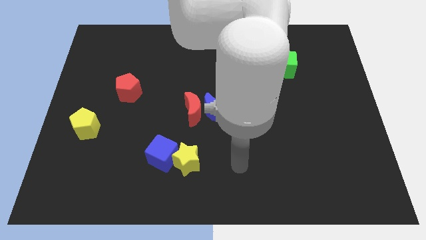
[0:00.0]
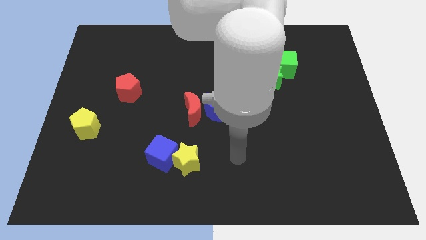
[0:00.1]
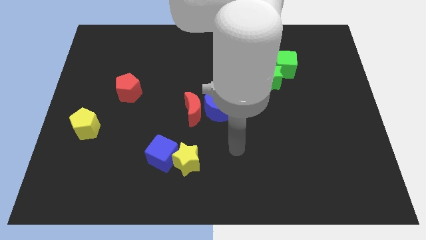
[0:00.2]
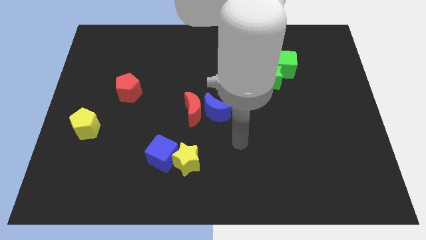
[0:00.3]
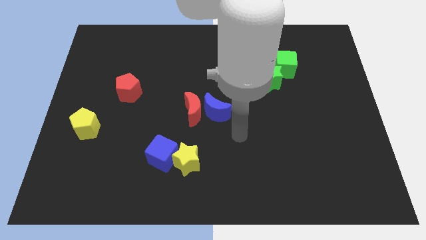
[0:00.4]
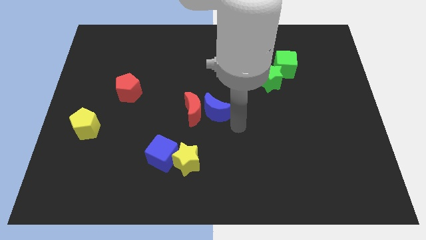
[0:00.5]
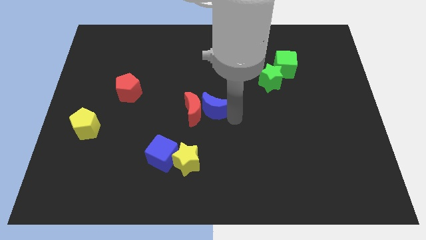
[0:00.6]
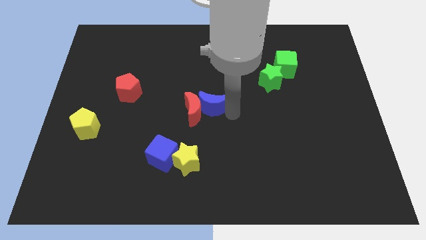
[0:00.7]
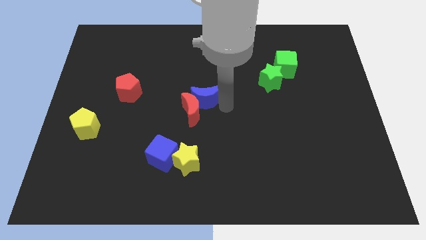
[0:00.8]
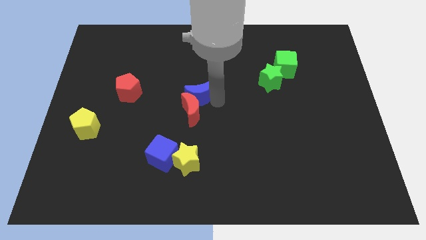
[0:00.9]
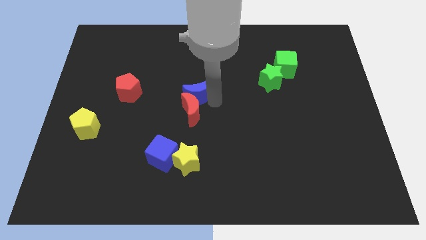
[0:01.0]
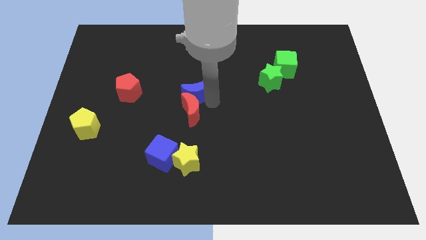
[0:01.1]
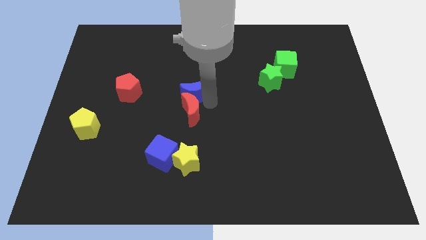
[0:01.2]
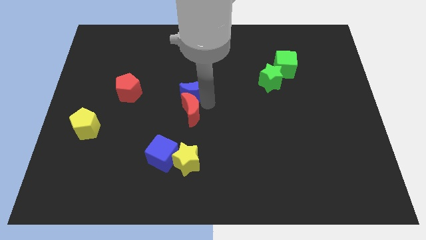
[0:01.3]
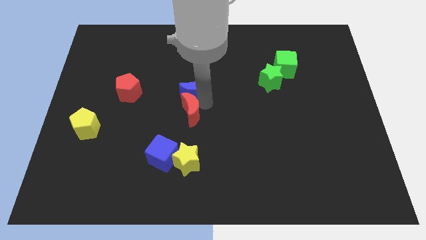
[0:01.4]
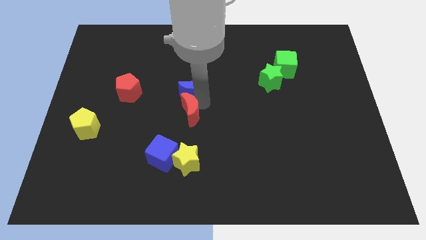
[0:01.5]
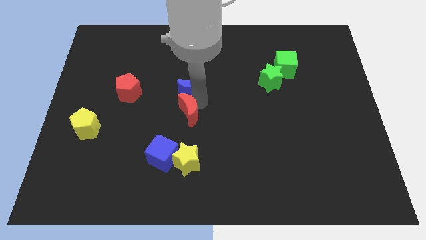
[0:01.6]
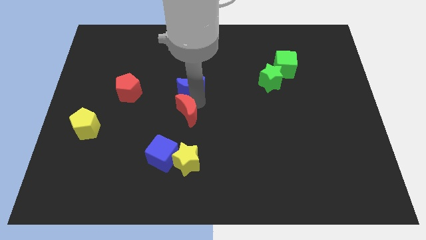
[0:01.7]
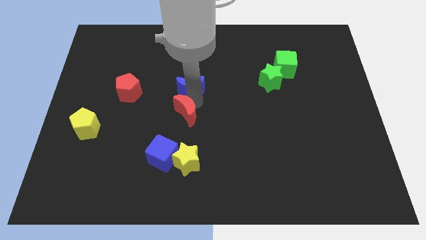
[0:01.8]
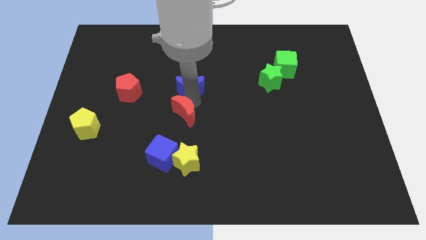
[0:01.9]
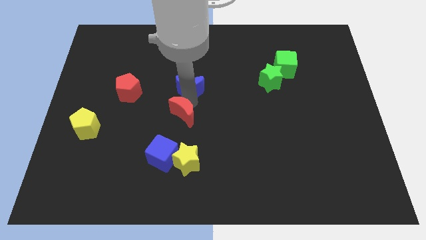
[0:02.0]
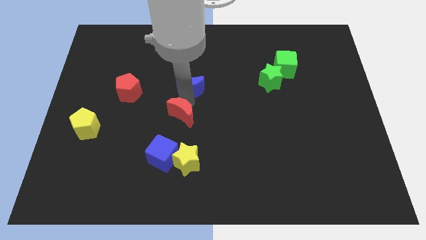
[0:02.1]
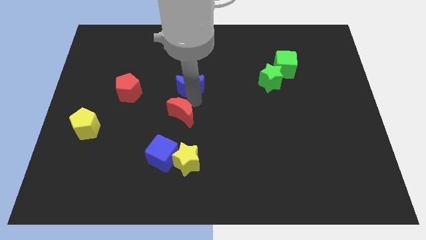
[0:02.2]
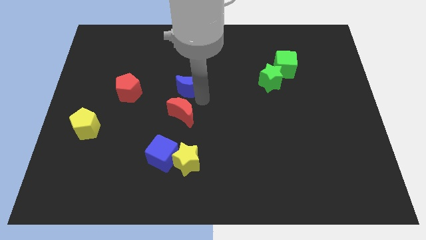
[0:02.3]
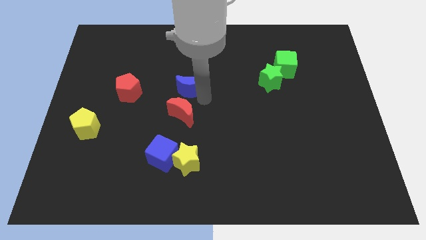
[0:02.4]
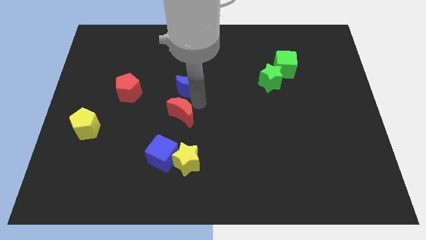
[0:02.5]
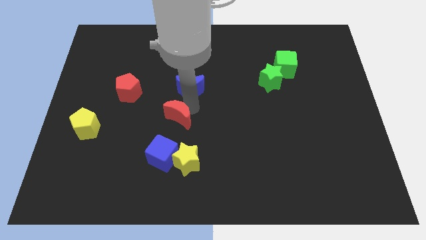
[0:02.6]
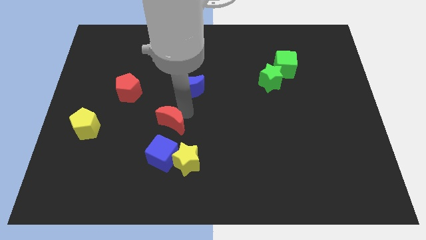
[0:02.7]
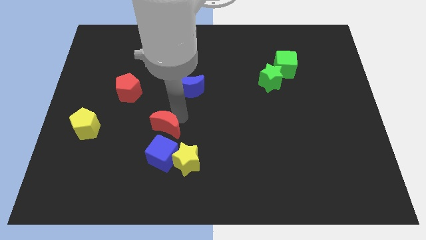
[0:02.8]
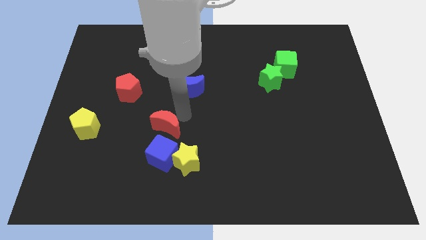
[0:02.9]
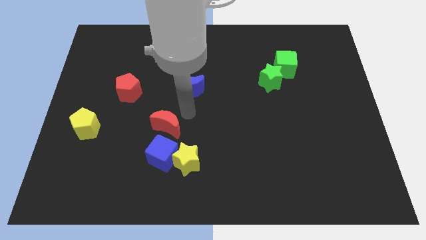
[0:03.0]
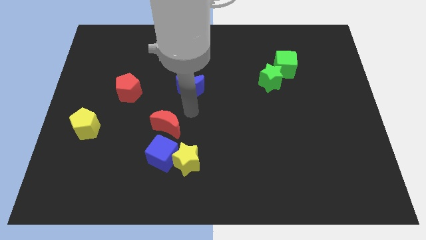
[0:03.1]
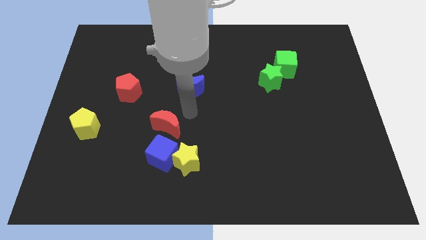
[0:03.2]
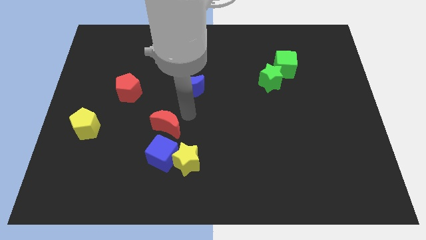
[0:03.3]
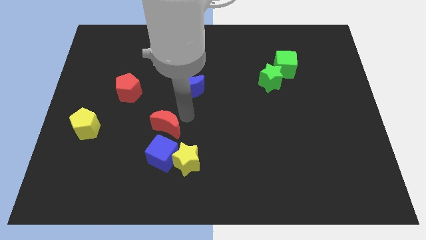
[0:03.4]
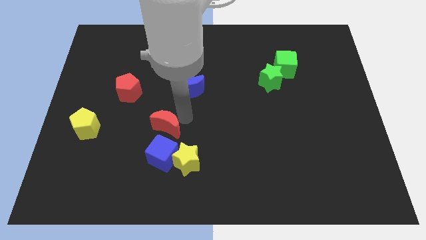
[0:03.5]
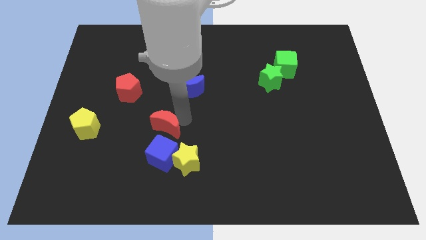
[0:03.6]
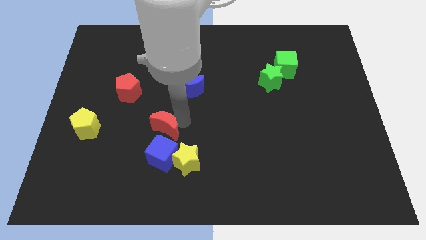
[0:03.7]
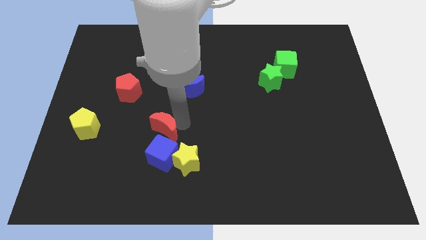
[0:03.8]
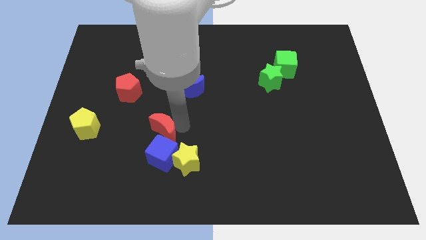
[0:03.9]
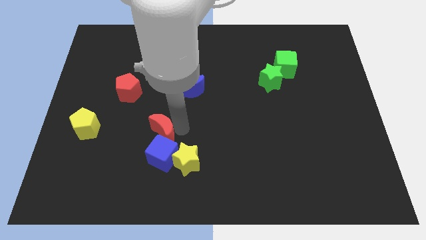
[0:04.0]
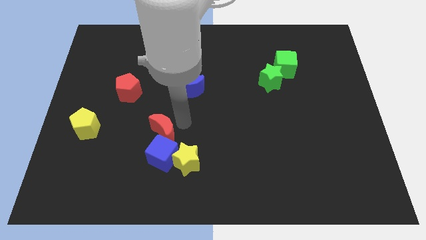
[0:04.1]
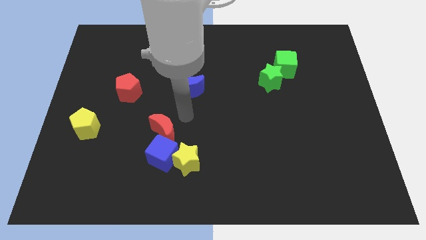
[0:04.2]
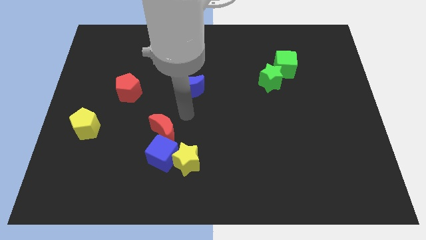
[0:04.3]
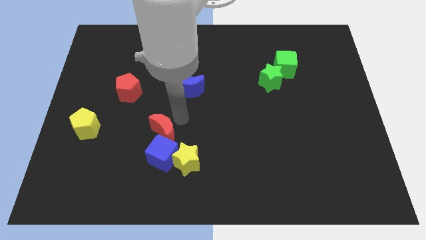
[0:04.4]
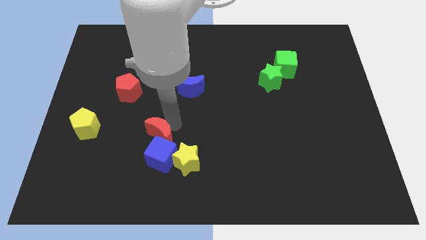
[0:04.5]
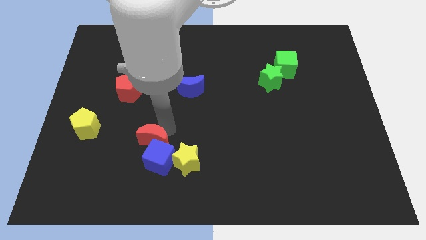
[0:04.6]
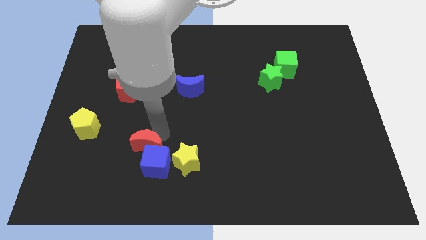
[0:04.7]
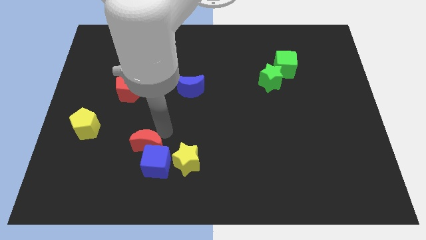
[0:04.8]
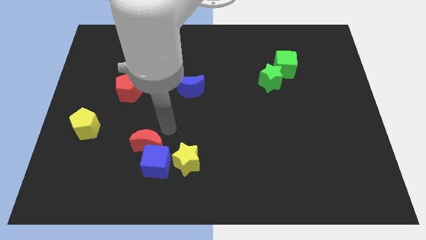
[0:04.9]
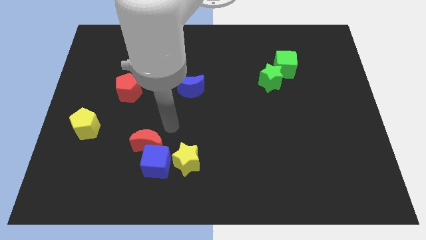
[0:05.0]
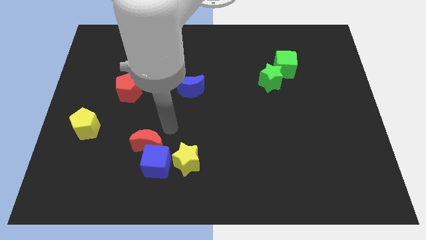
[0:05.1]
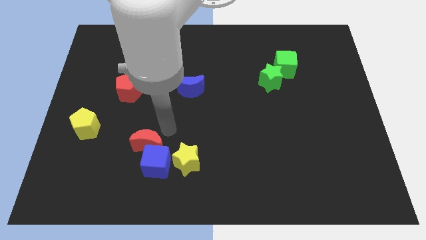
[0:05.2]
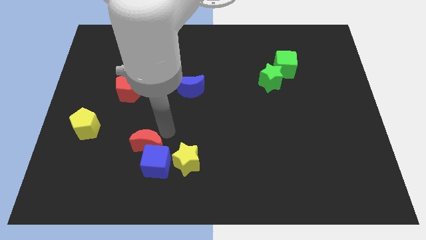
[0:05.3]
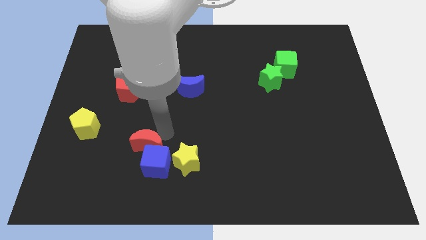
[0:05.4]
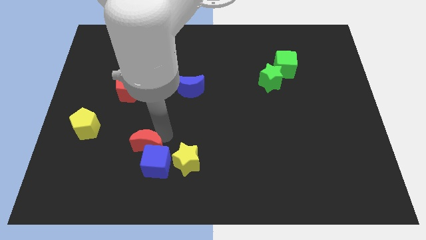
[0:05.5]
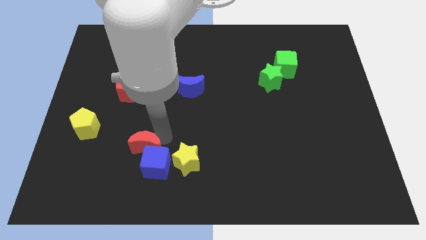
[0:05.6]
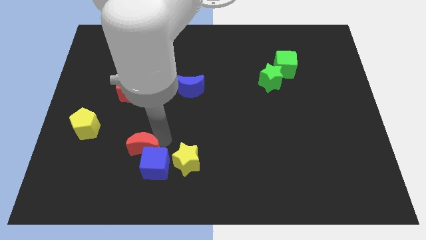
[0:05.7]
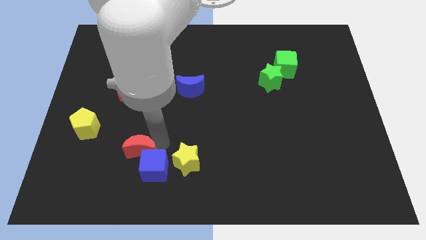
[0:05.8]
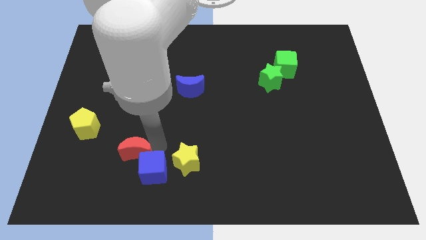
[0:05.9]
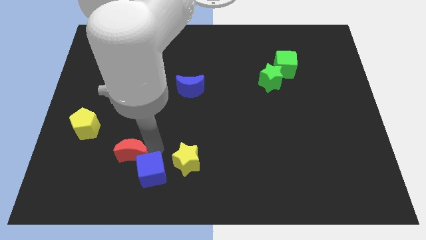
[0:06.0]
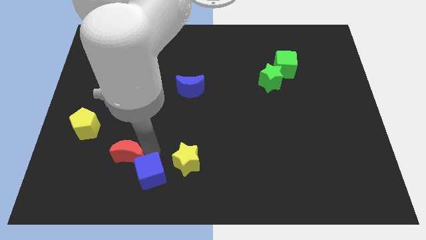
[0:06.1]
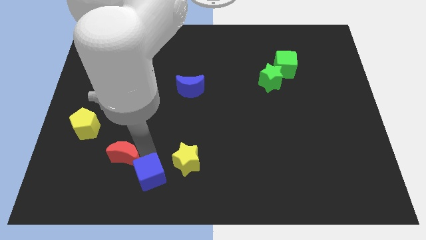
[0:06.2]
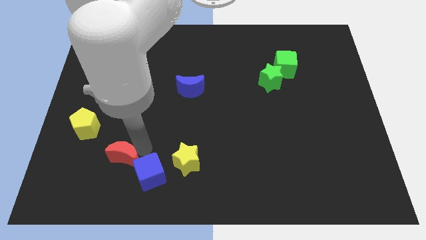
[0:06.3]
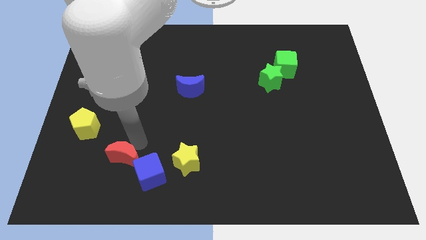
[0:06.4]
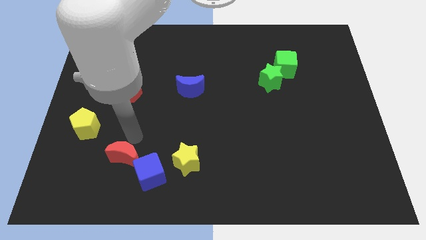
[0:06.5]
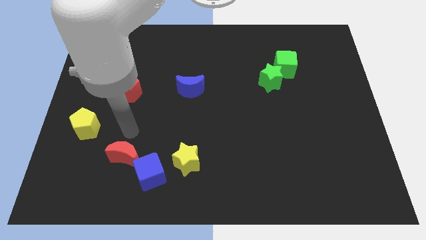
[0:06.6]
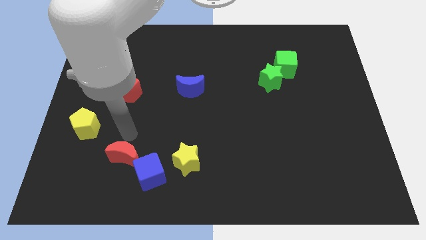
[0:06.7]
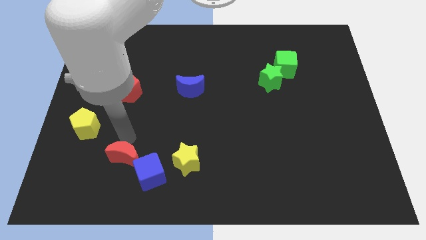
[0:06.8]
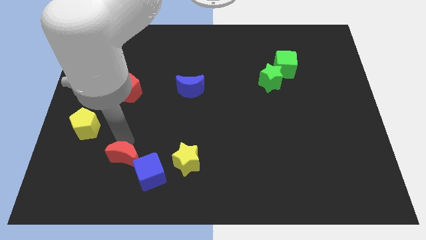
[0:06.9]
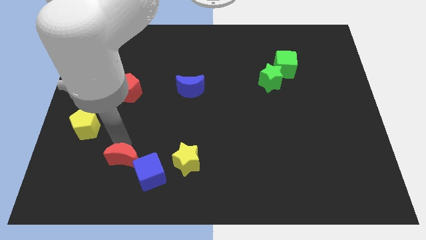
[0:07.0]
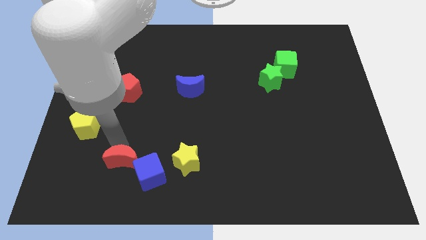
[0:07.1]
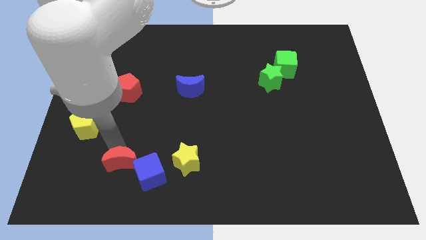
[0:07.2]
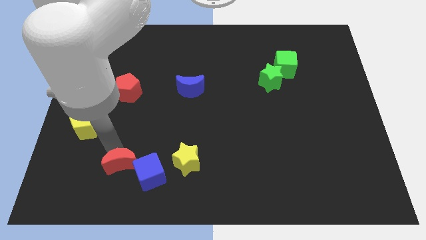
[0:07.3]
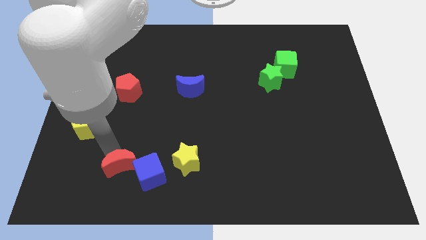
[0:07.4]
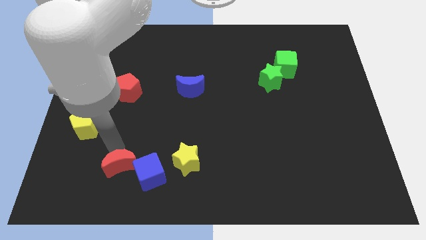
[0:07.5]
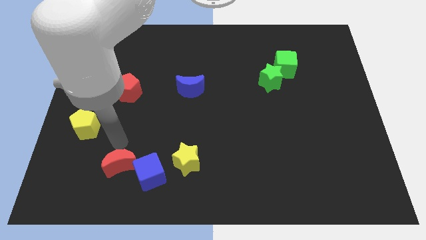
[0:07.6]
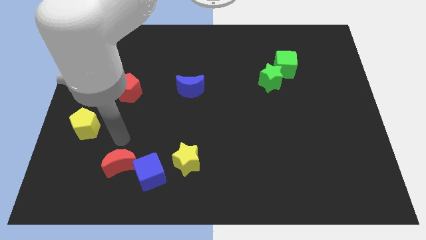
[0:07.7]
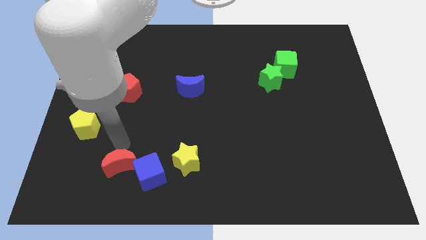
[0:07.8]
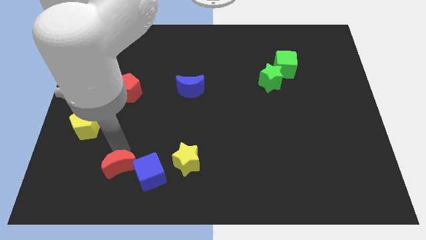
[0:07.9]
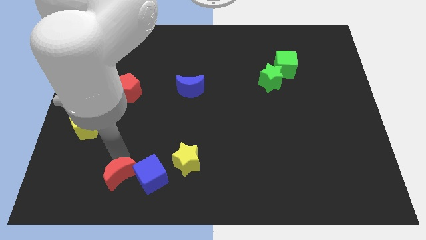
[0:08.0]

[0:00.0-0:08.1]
slide the red moon diagonally down and to the left of the blue cube

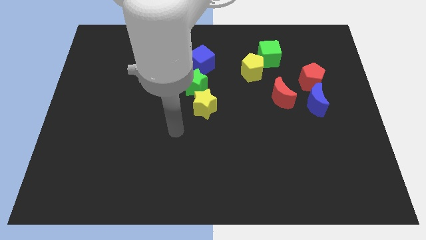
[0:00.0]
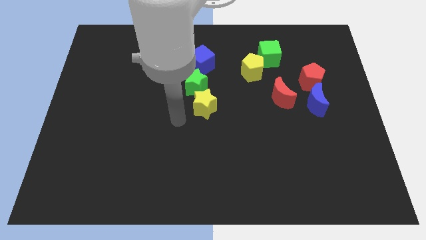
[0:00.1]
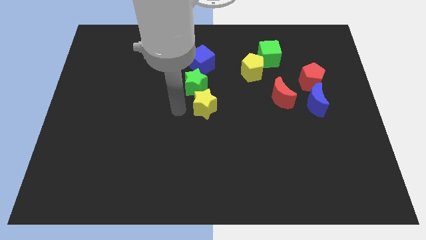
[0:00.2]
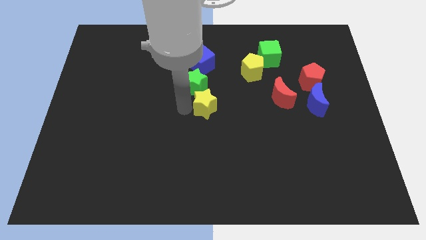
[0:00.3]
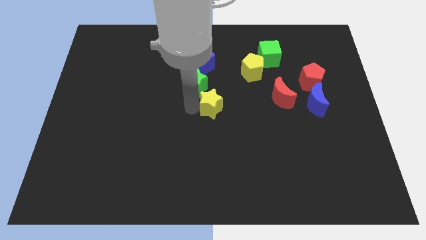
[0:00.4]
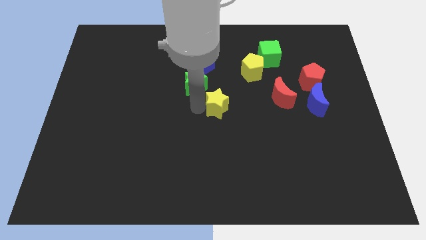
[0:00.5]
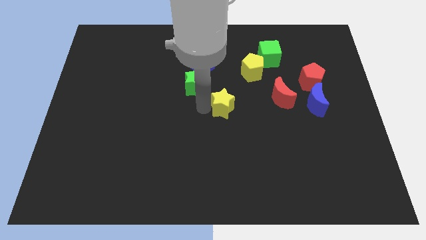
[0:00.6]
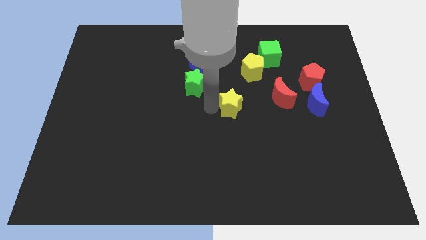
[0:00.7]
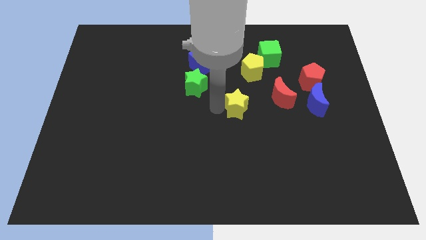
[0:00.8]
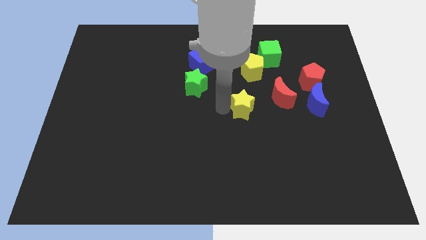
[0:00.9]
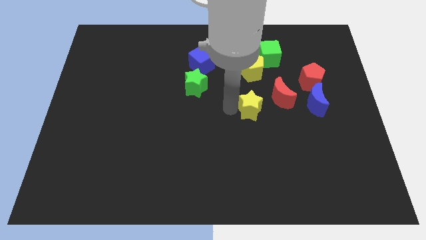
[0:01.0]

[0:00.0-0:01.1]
put the yellow star left of the blue moon
